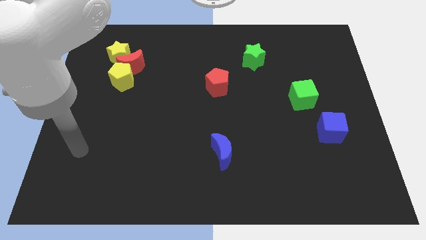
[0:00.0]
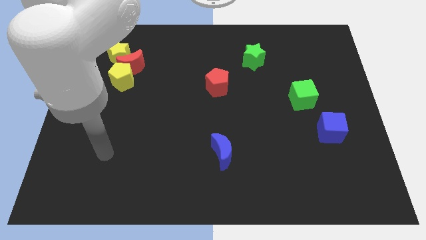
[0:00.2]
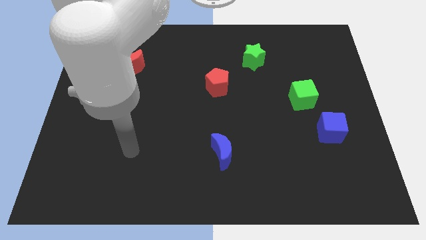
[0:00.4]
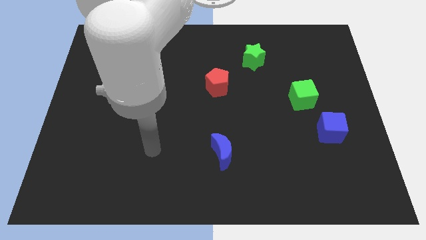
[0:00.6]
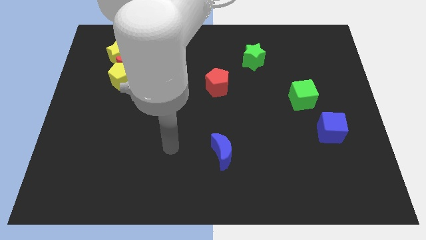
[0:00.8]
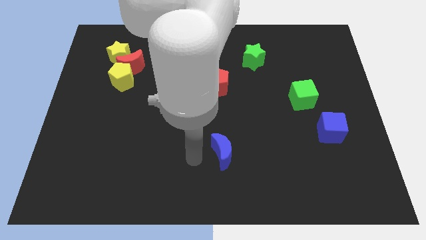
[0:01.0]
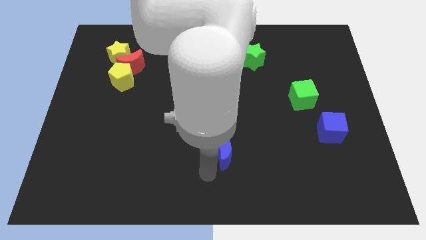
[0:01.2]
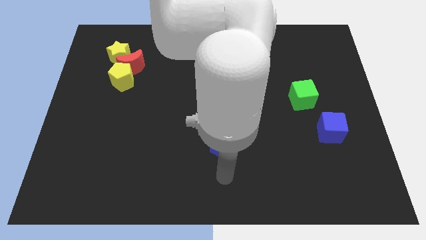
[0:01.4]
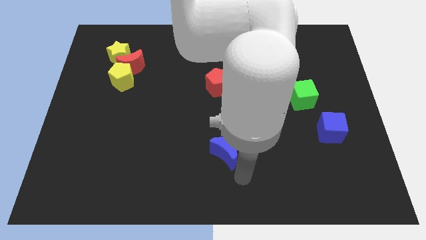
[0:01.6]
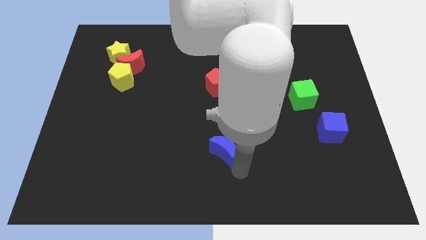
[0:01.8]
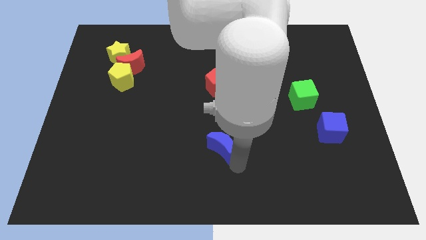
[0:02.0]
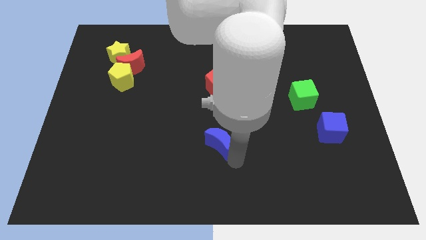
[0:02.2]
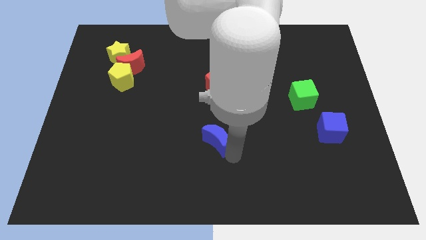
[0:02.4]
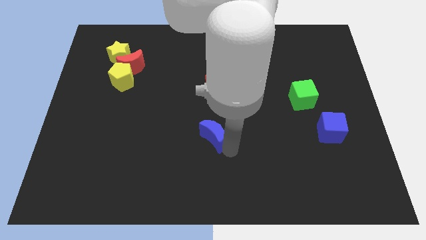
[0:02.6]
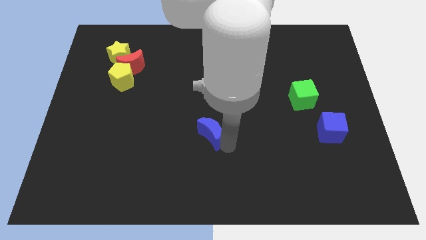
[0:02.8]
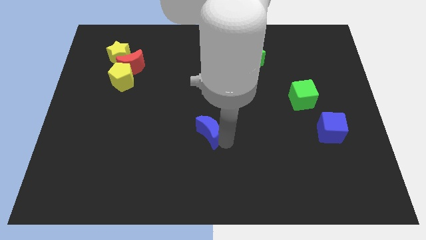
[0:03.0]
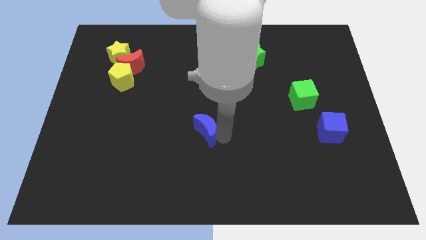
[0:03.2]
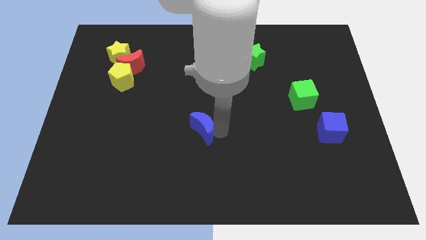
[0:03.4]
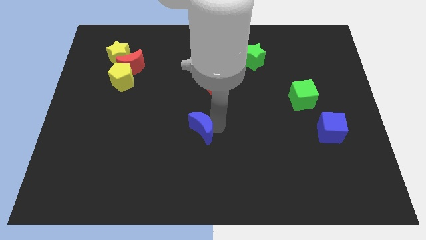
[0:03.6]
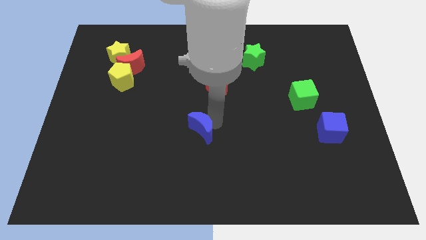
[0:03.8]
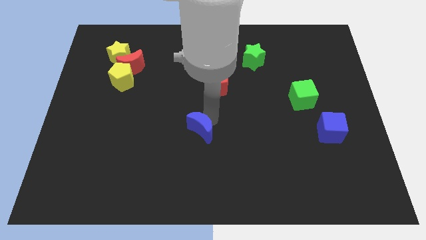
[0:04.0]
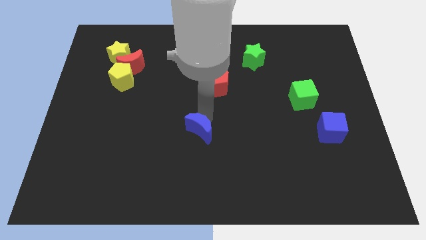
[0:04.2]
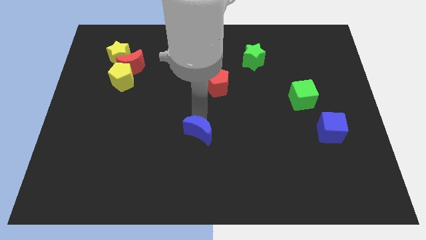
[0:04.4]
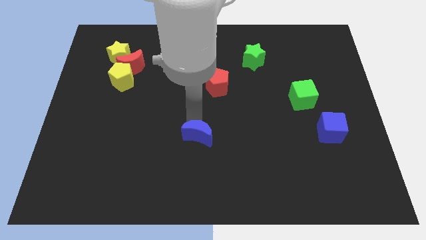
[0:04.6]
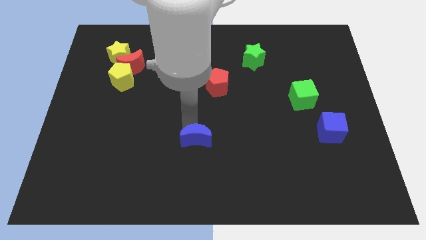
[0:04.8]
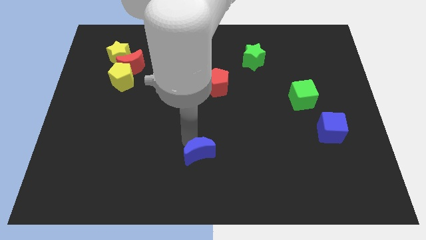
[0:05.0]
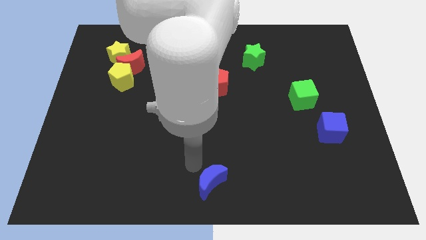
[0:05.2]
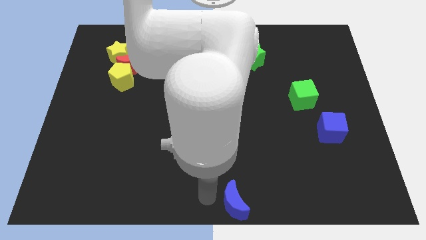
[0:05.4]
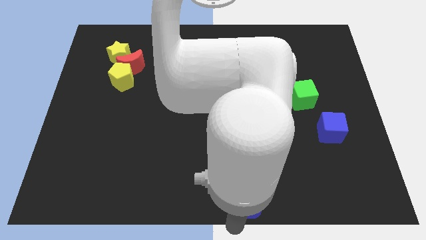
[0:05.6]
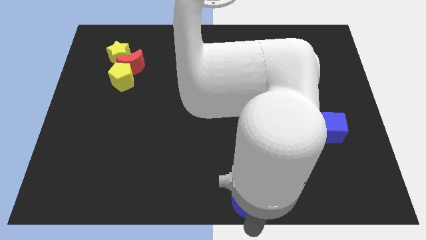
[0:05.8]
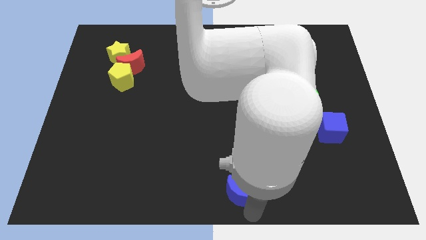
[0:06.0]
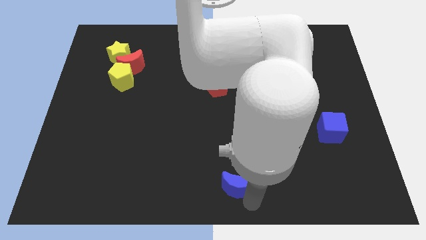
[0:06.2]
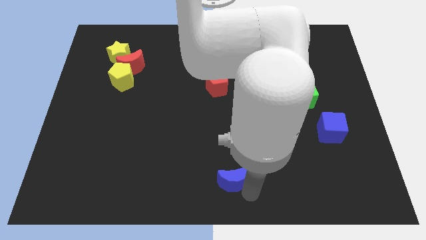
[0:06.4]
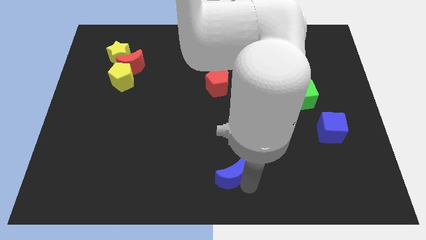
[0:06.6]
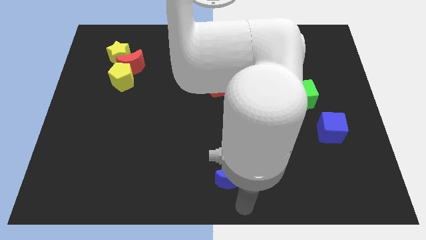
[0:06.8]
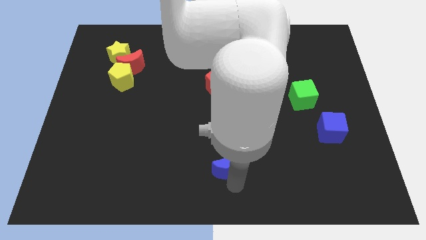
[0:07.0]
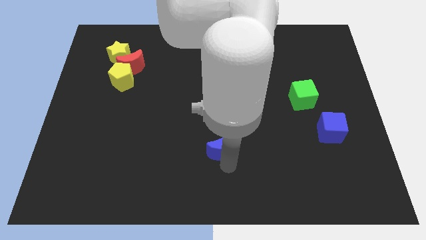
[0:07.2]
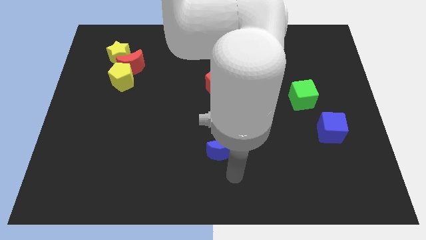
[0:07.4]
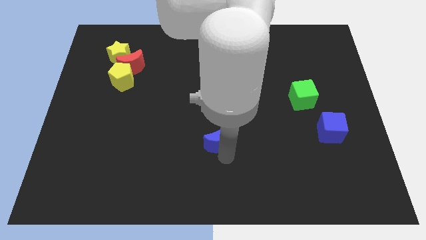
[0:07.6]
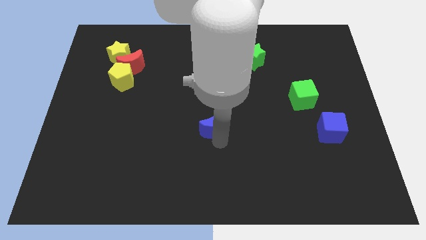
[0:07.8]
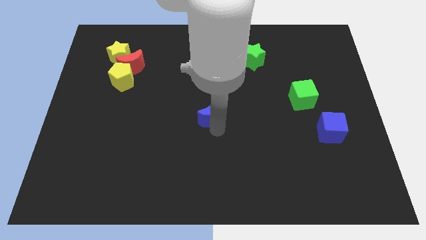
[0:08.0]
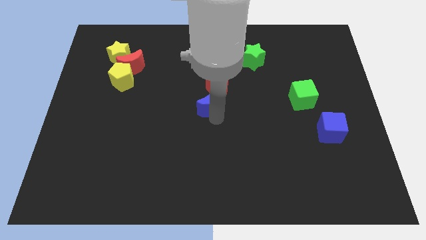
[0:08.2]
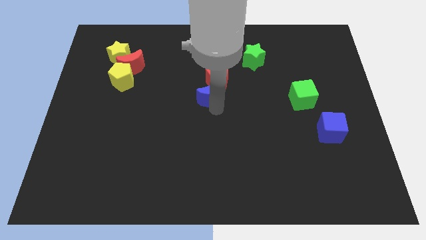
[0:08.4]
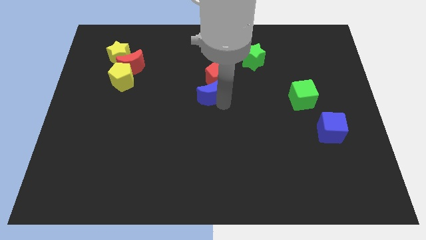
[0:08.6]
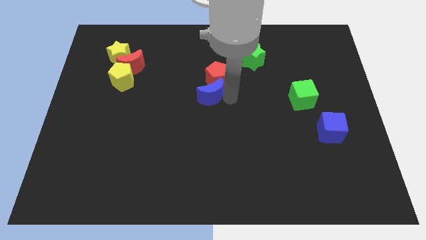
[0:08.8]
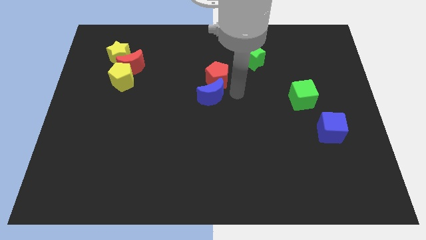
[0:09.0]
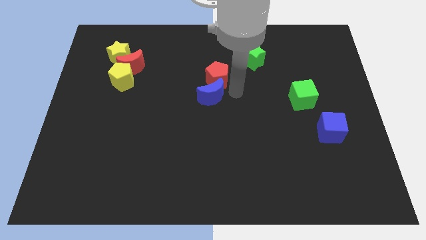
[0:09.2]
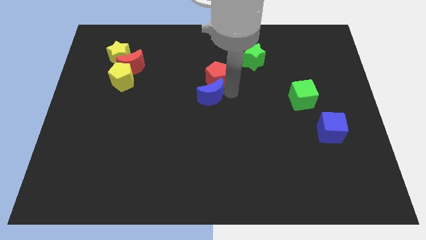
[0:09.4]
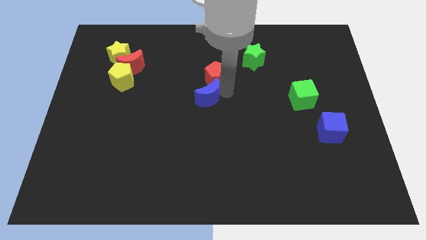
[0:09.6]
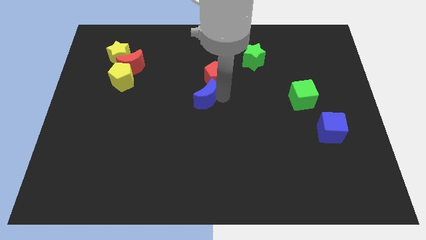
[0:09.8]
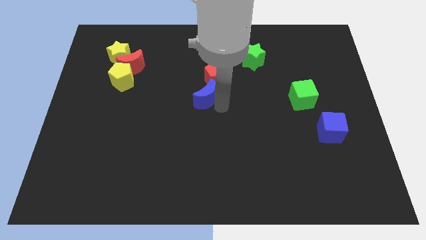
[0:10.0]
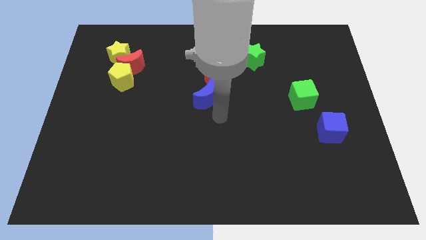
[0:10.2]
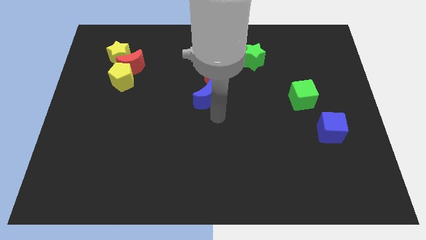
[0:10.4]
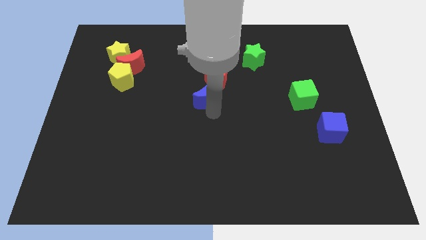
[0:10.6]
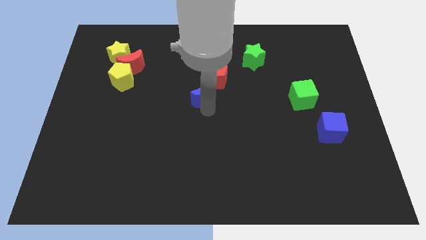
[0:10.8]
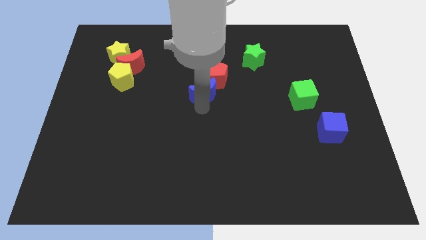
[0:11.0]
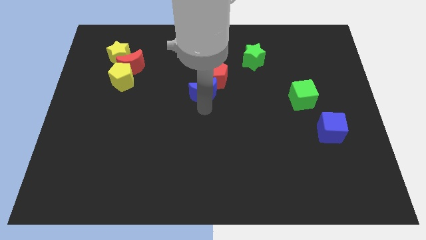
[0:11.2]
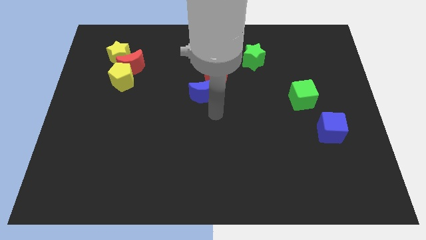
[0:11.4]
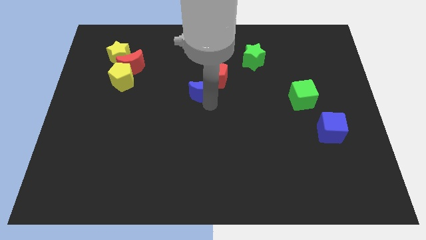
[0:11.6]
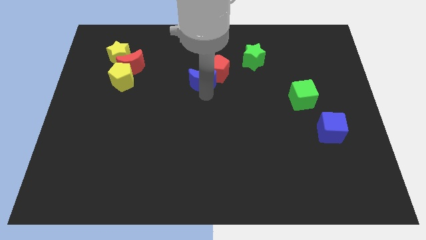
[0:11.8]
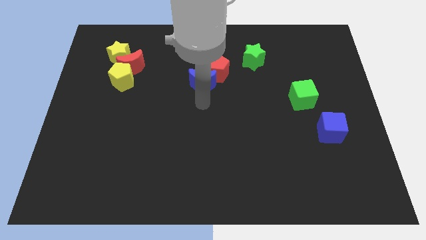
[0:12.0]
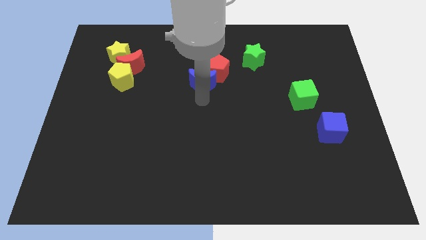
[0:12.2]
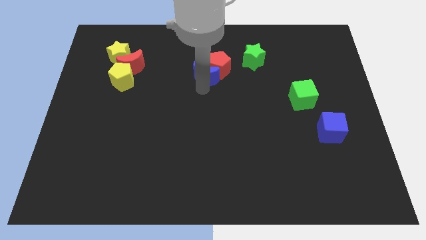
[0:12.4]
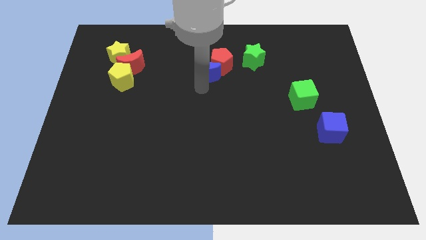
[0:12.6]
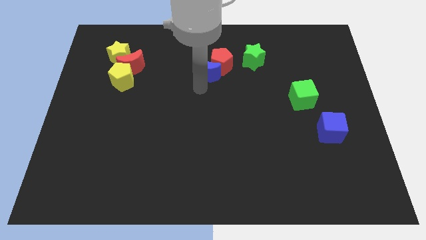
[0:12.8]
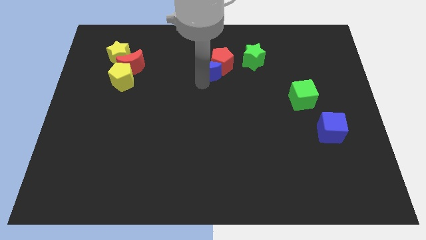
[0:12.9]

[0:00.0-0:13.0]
push the blue moon to the left of the green star
